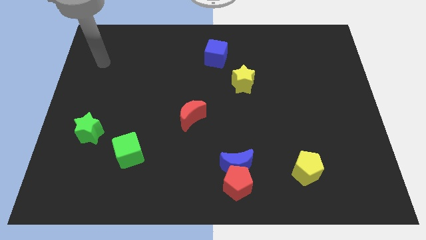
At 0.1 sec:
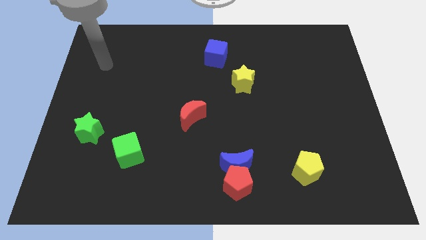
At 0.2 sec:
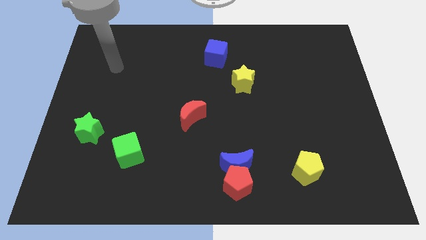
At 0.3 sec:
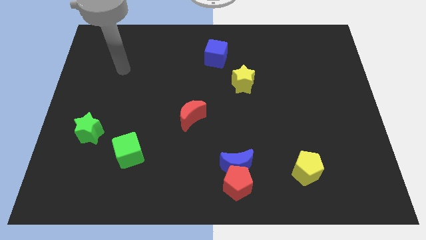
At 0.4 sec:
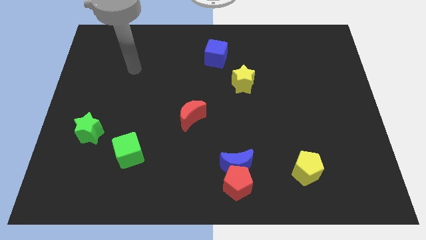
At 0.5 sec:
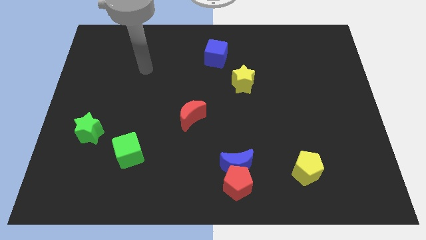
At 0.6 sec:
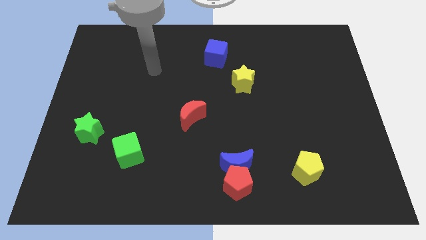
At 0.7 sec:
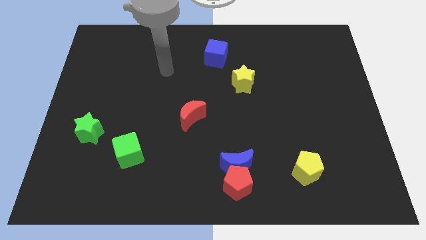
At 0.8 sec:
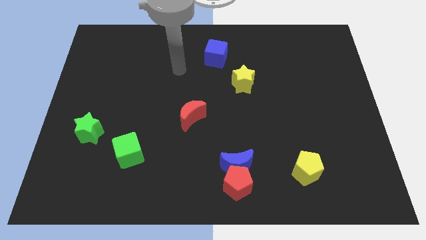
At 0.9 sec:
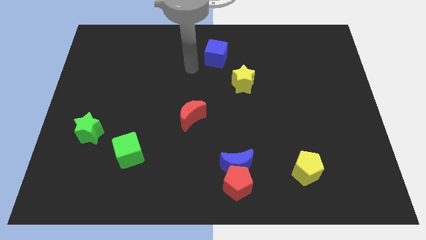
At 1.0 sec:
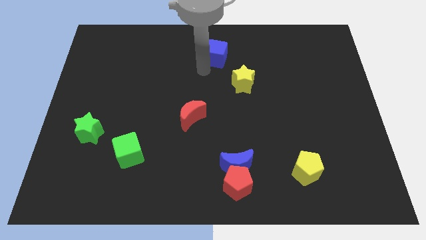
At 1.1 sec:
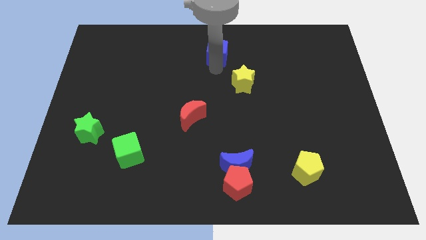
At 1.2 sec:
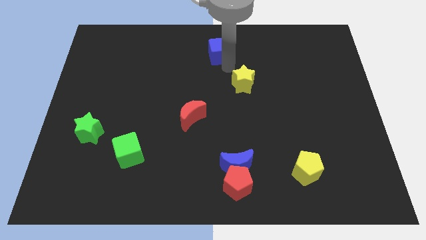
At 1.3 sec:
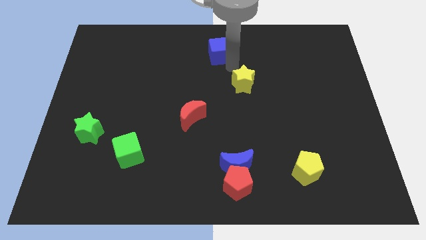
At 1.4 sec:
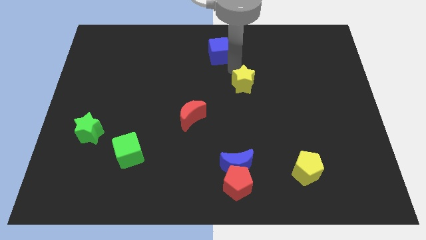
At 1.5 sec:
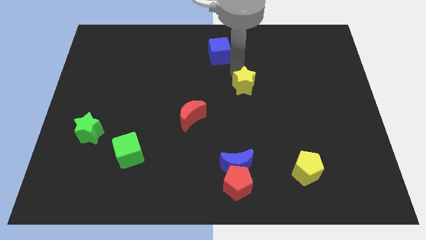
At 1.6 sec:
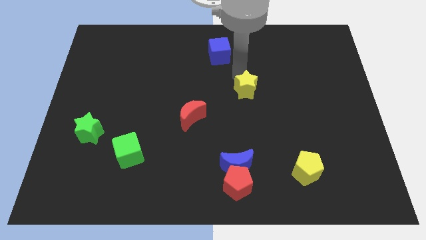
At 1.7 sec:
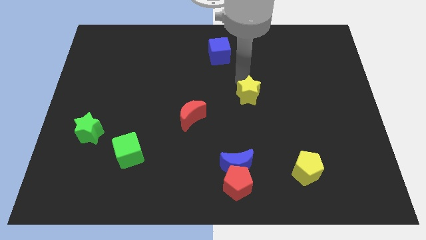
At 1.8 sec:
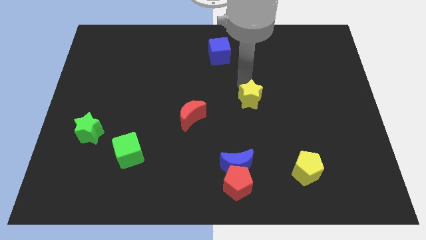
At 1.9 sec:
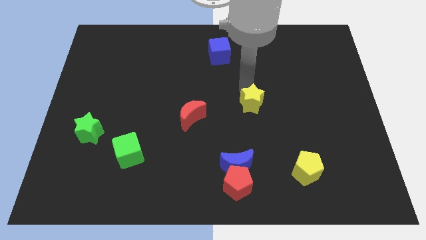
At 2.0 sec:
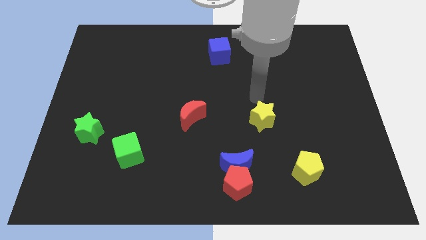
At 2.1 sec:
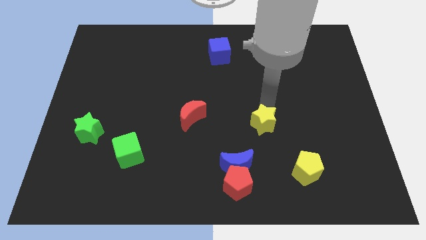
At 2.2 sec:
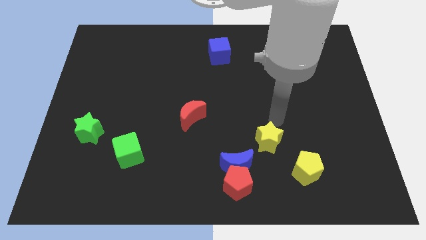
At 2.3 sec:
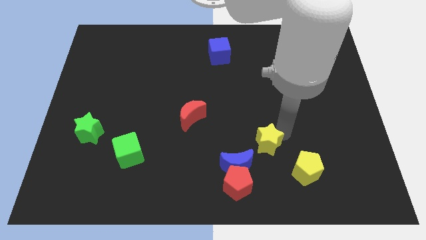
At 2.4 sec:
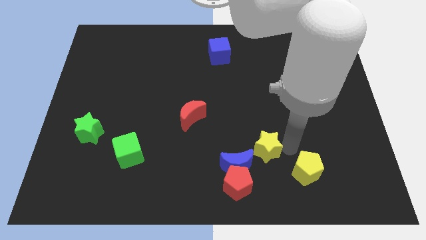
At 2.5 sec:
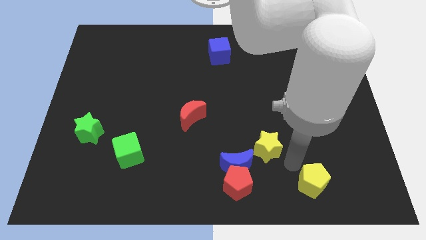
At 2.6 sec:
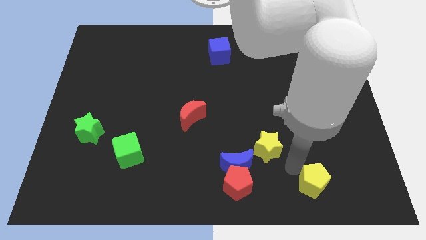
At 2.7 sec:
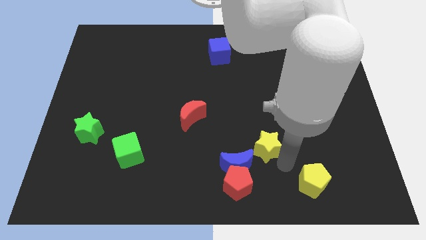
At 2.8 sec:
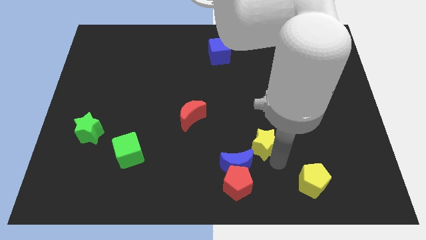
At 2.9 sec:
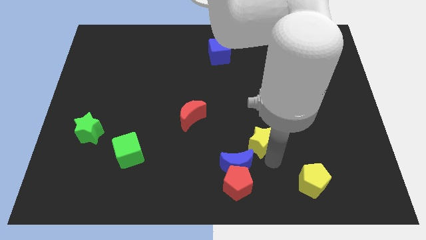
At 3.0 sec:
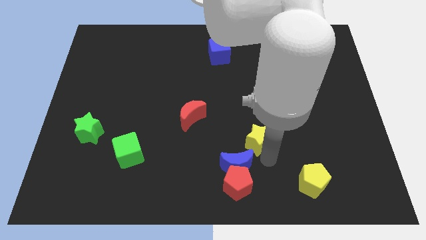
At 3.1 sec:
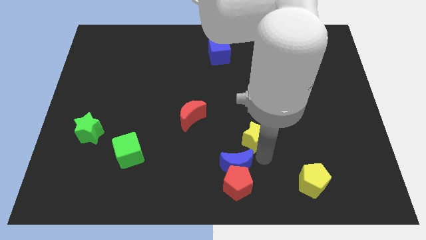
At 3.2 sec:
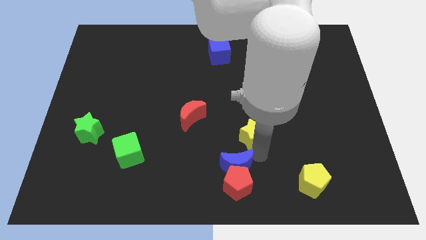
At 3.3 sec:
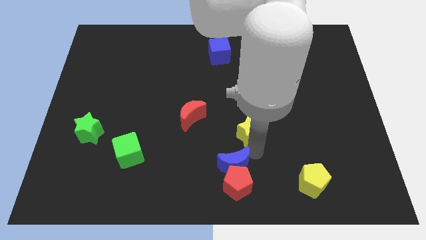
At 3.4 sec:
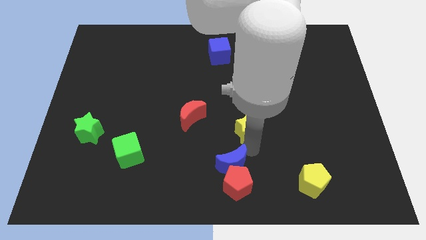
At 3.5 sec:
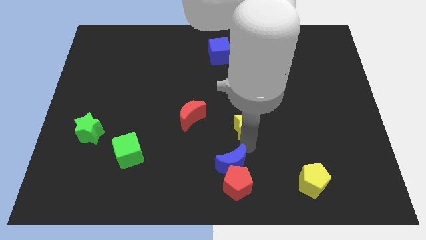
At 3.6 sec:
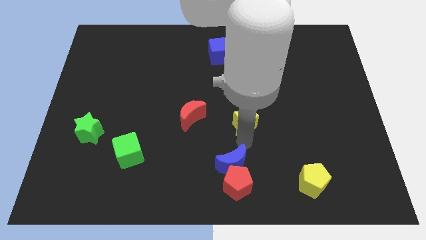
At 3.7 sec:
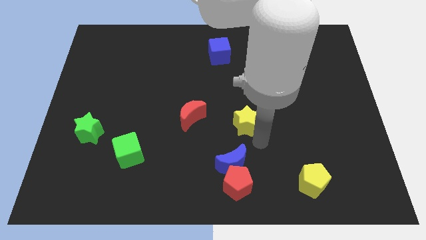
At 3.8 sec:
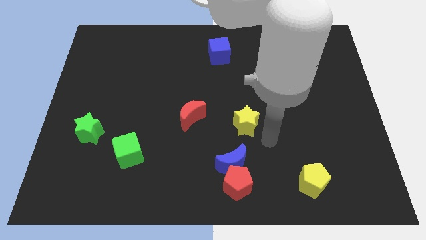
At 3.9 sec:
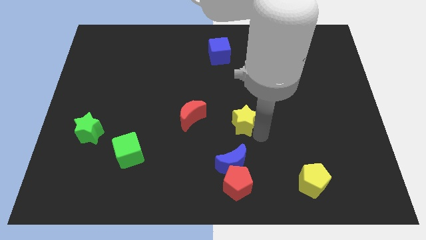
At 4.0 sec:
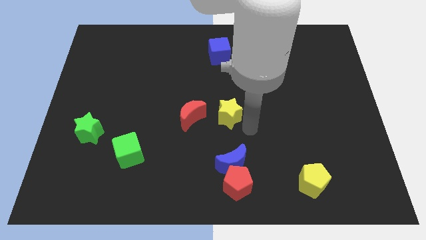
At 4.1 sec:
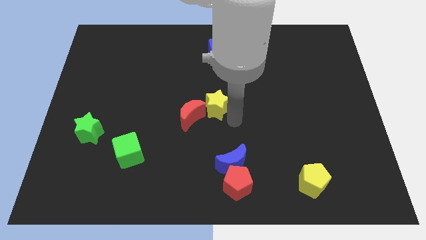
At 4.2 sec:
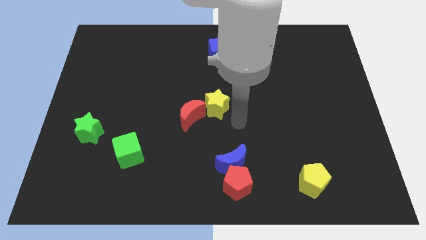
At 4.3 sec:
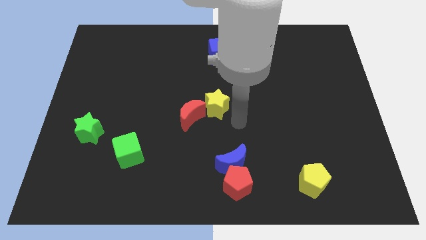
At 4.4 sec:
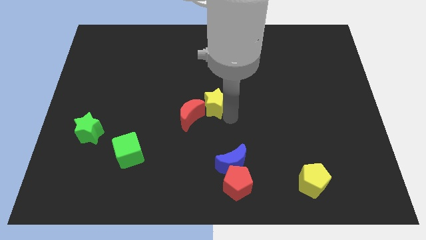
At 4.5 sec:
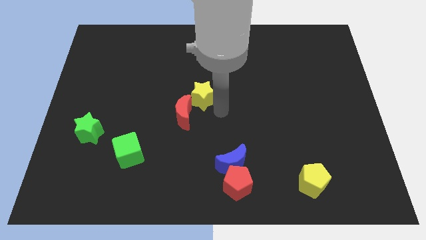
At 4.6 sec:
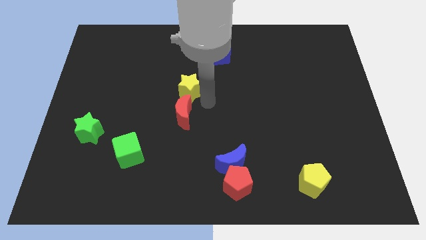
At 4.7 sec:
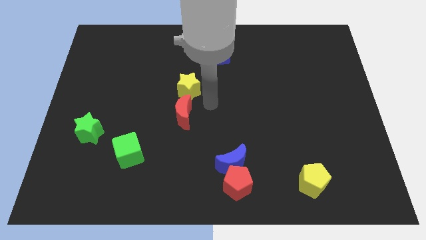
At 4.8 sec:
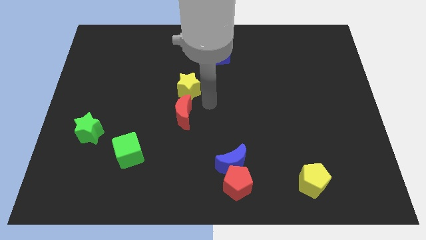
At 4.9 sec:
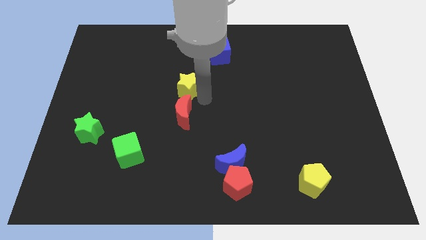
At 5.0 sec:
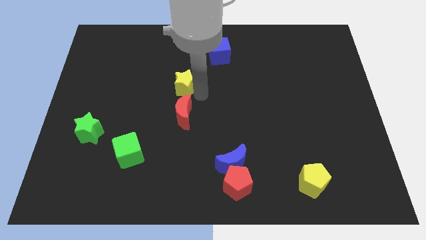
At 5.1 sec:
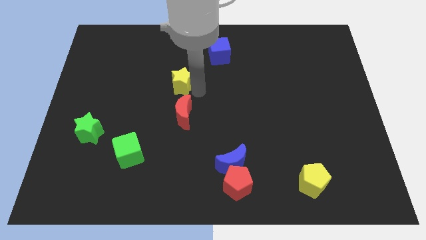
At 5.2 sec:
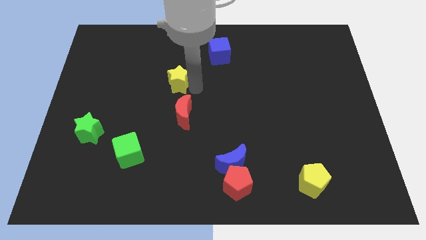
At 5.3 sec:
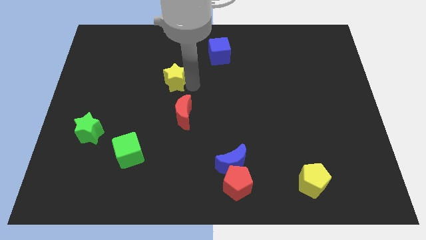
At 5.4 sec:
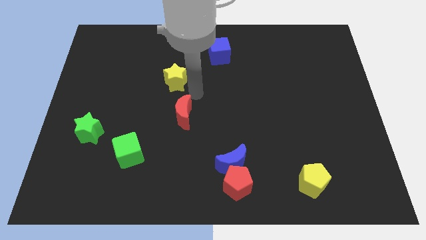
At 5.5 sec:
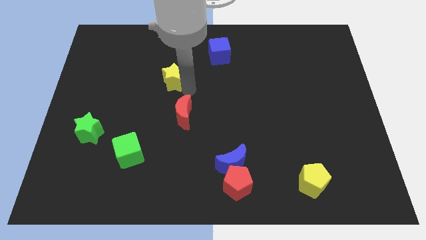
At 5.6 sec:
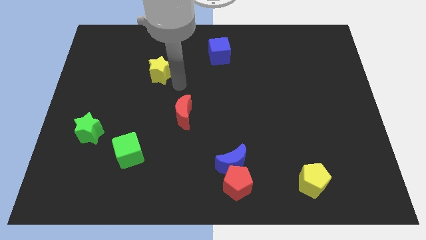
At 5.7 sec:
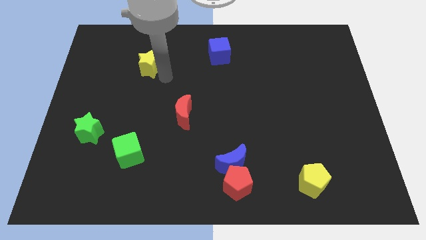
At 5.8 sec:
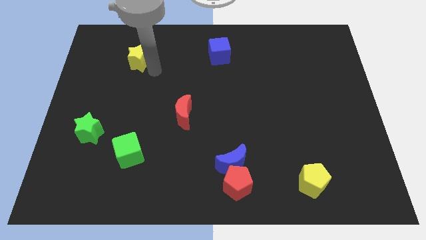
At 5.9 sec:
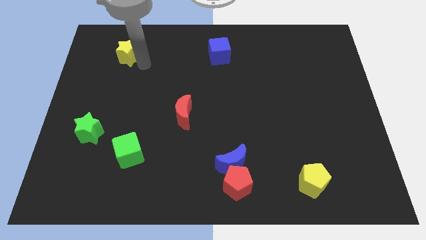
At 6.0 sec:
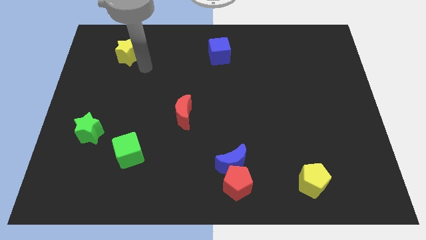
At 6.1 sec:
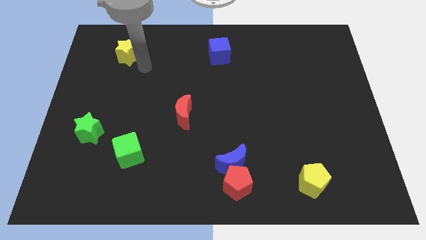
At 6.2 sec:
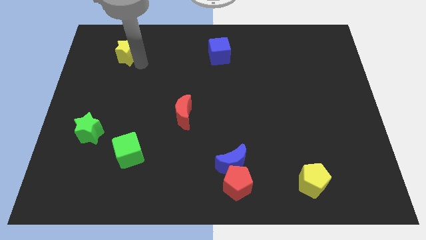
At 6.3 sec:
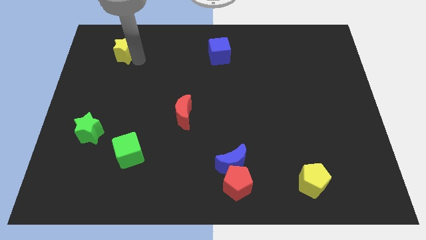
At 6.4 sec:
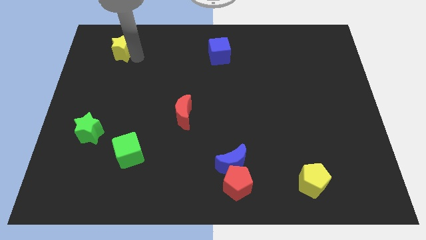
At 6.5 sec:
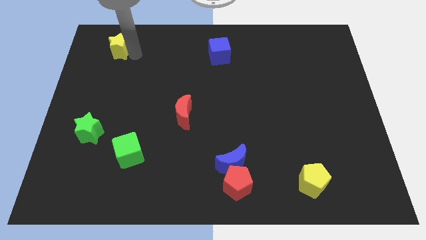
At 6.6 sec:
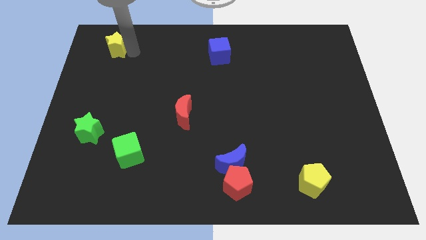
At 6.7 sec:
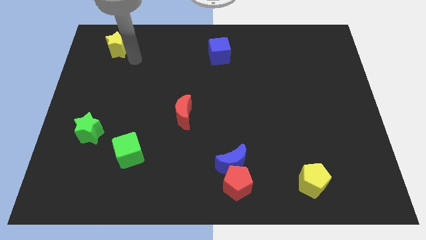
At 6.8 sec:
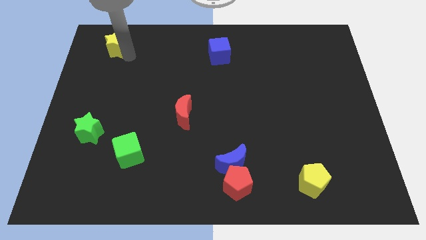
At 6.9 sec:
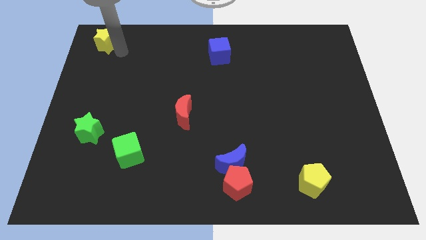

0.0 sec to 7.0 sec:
put the yellow star to the top left
